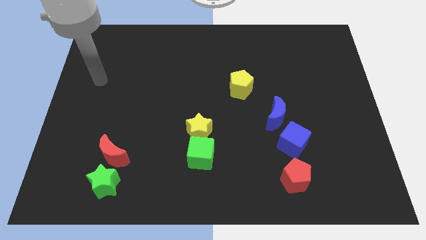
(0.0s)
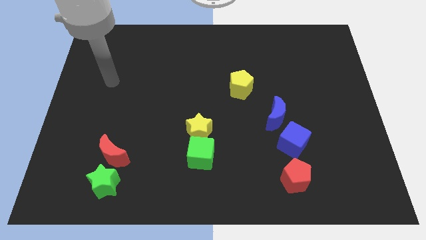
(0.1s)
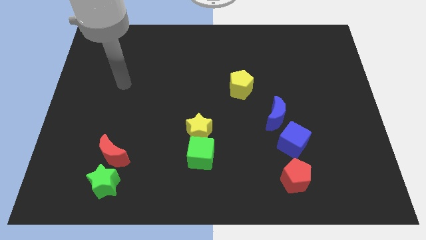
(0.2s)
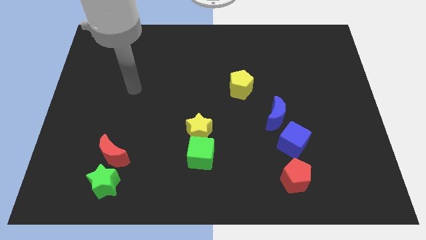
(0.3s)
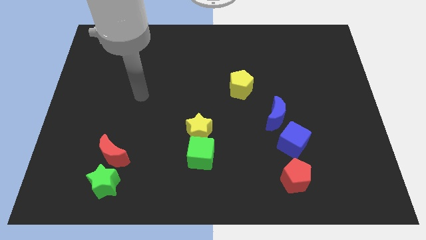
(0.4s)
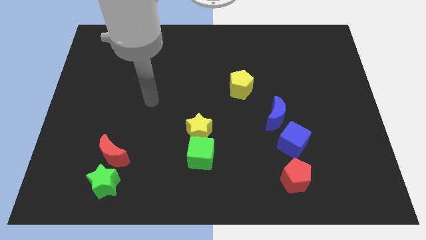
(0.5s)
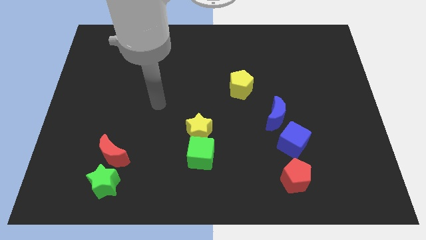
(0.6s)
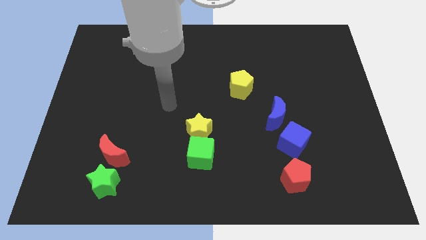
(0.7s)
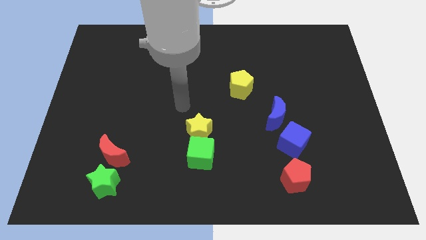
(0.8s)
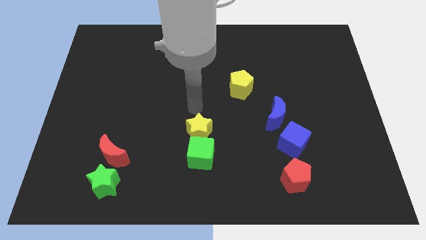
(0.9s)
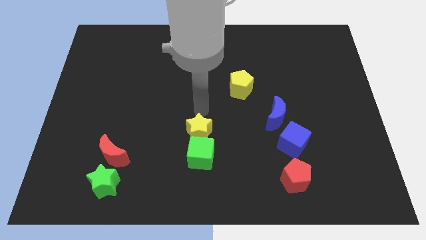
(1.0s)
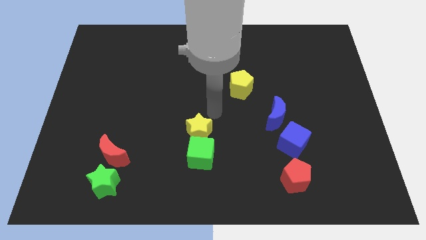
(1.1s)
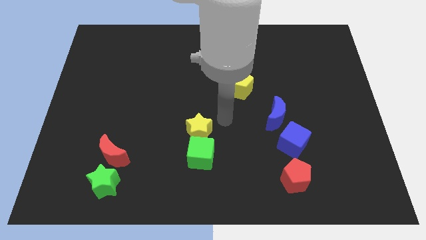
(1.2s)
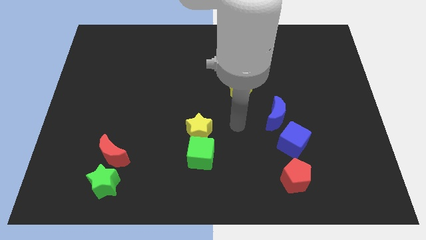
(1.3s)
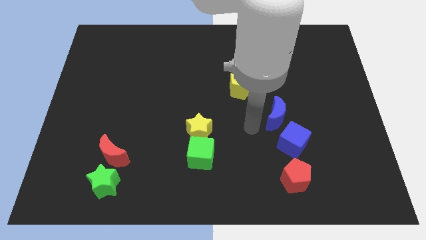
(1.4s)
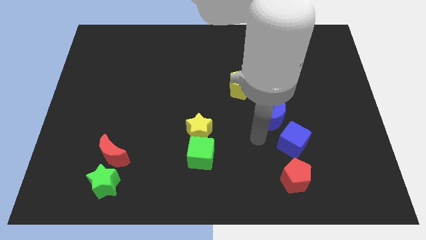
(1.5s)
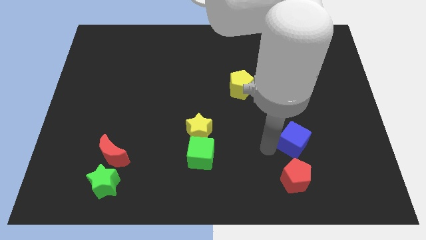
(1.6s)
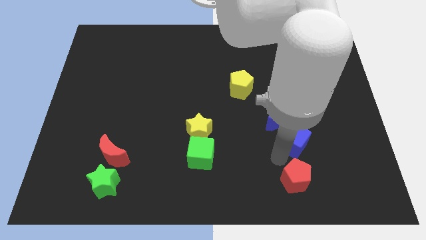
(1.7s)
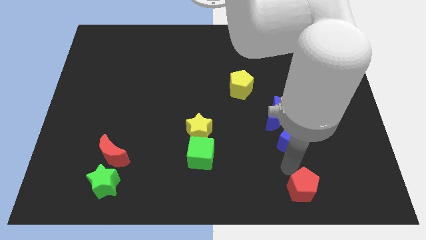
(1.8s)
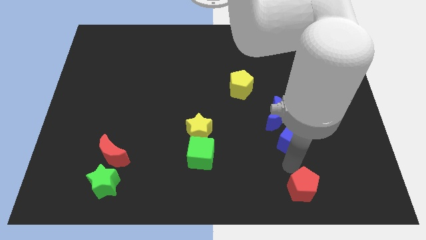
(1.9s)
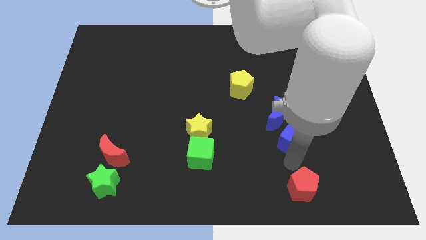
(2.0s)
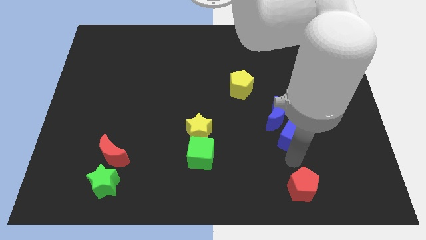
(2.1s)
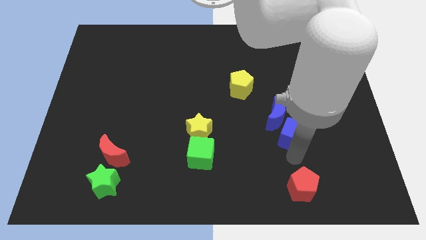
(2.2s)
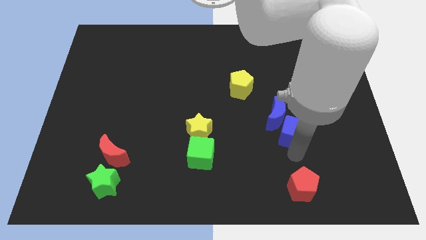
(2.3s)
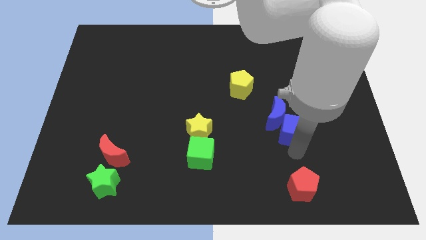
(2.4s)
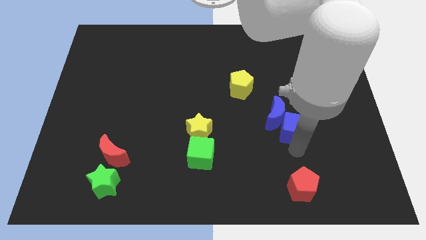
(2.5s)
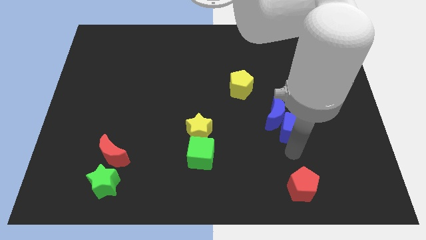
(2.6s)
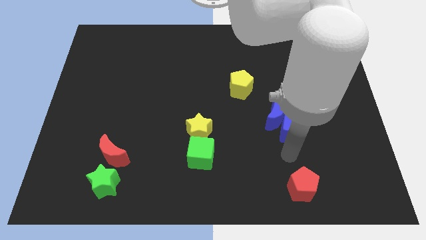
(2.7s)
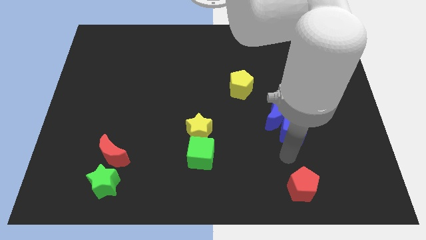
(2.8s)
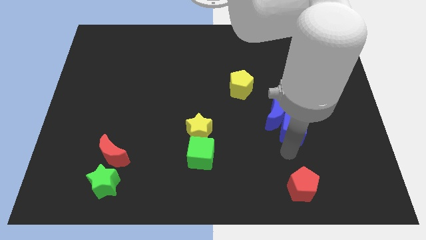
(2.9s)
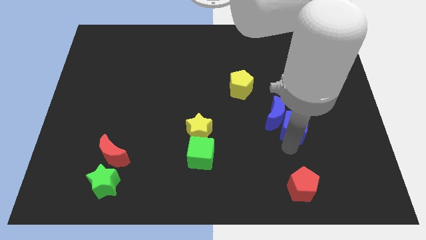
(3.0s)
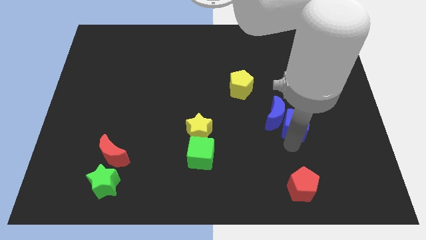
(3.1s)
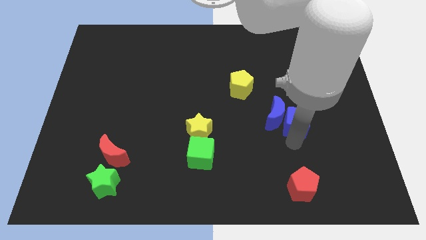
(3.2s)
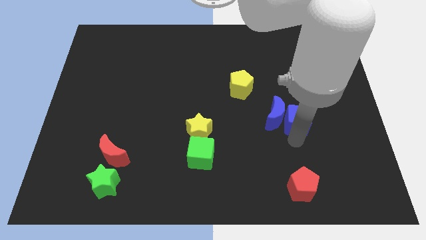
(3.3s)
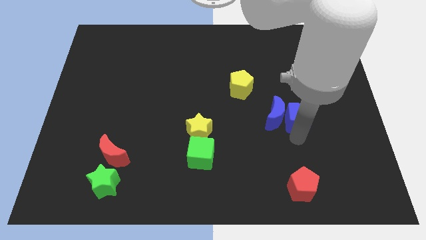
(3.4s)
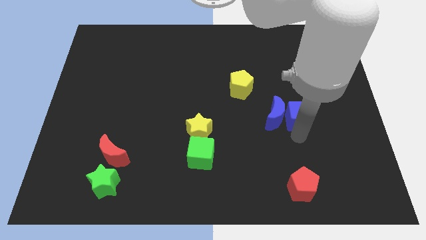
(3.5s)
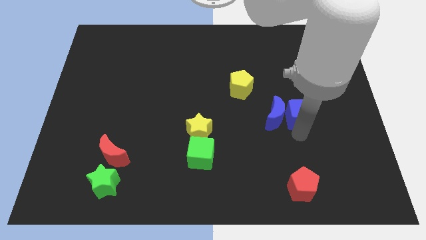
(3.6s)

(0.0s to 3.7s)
move the blue cube a bit up

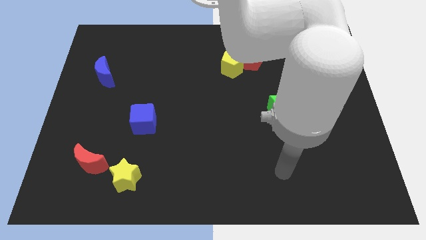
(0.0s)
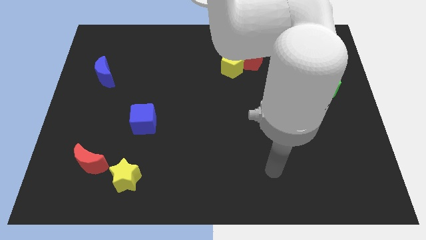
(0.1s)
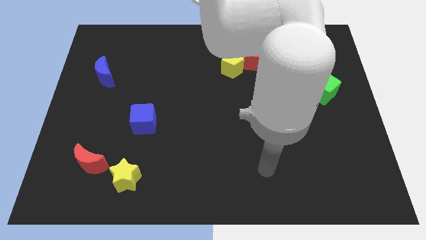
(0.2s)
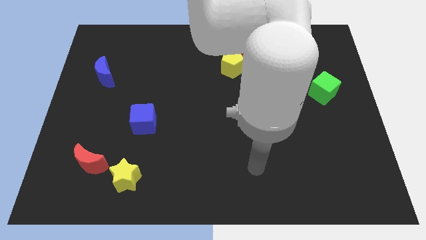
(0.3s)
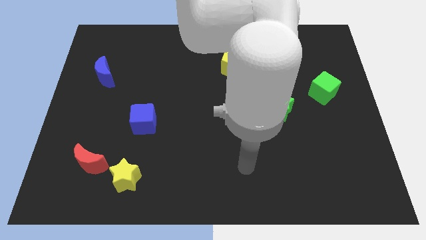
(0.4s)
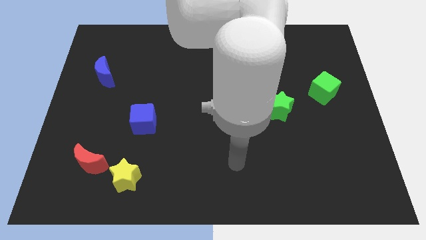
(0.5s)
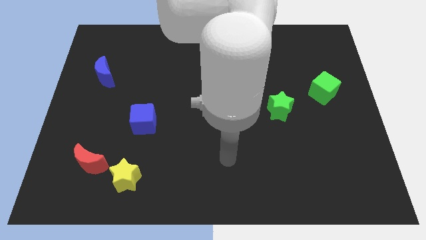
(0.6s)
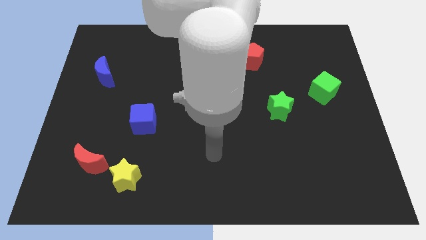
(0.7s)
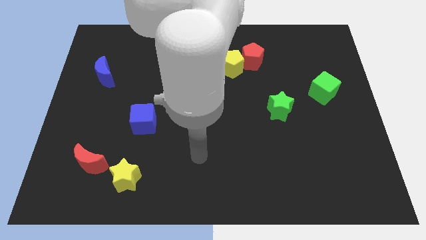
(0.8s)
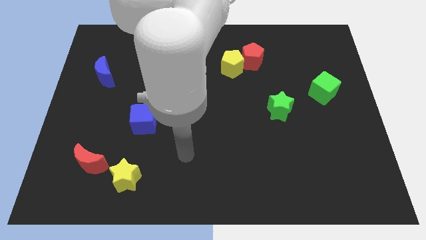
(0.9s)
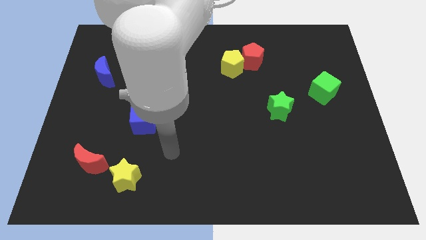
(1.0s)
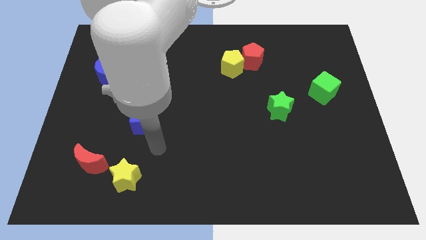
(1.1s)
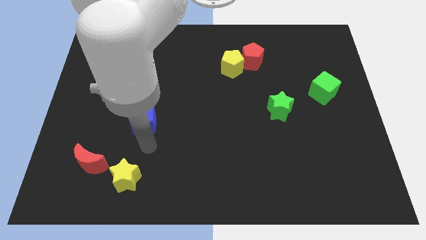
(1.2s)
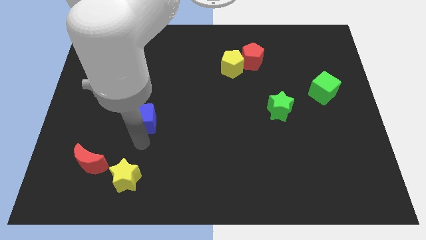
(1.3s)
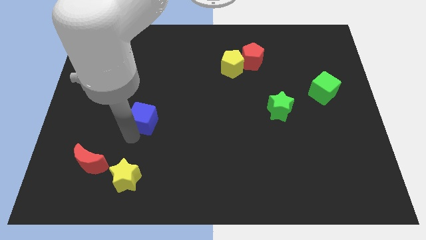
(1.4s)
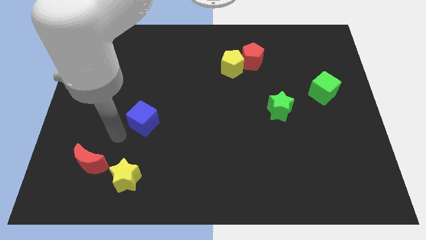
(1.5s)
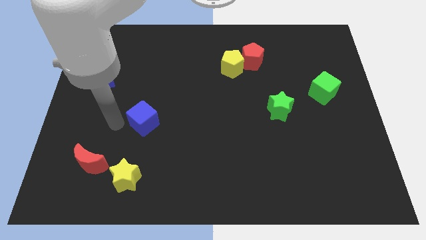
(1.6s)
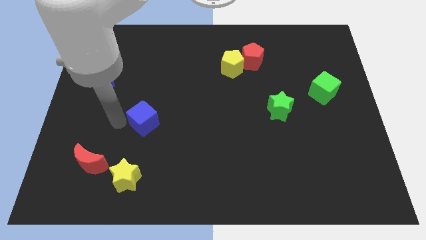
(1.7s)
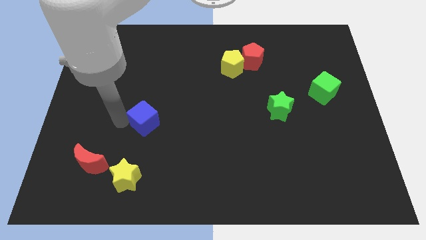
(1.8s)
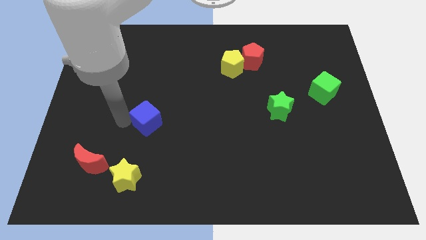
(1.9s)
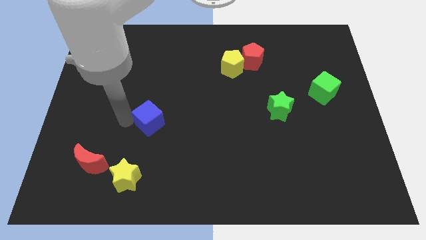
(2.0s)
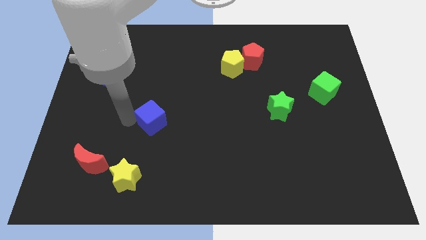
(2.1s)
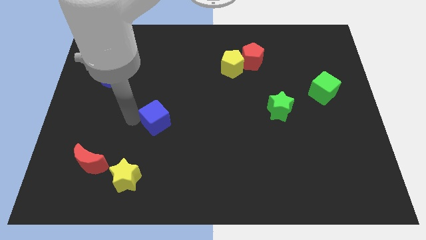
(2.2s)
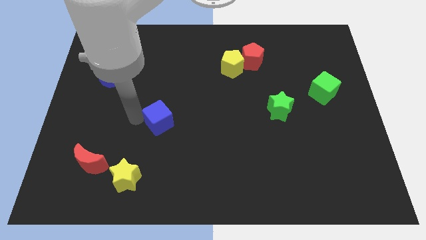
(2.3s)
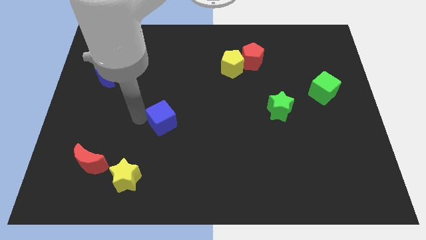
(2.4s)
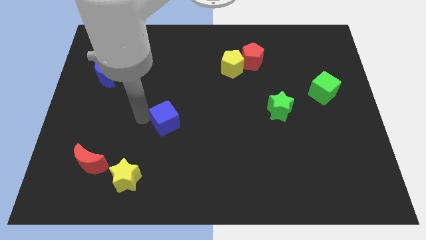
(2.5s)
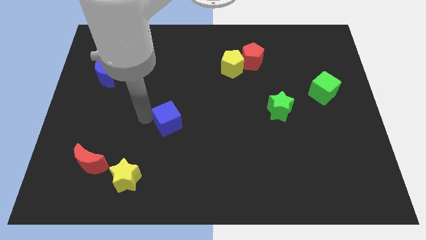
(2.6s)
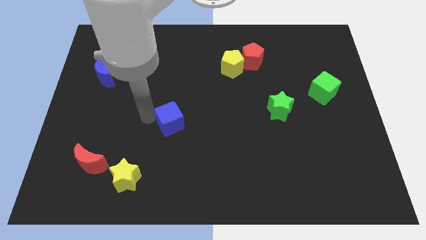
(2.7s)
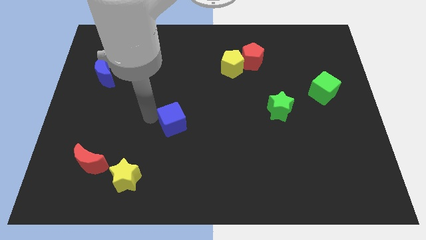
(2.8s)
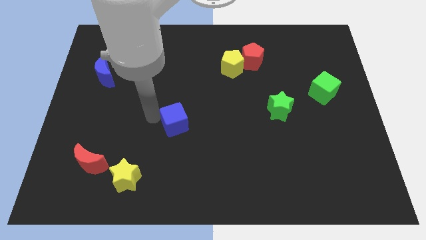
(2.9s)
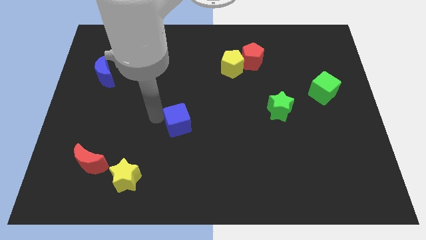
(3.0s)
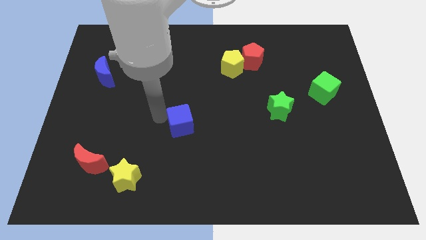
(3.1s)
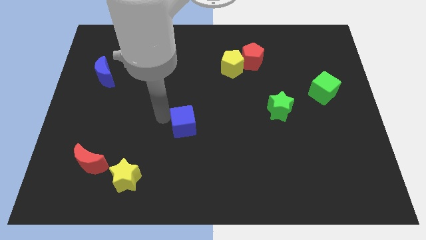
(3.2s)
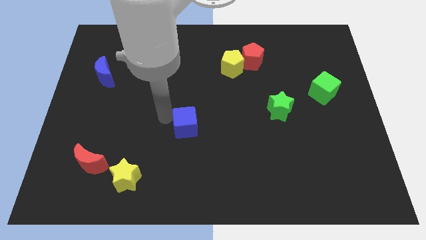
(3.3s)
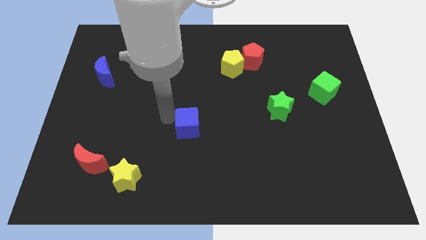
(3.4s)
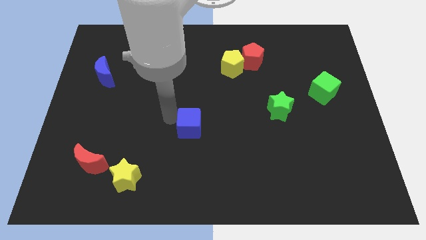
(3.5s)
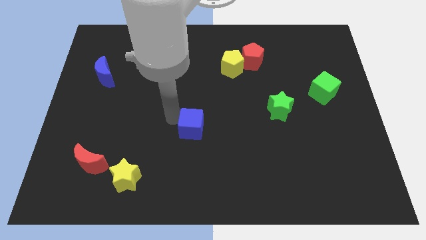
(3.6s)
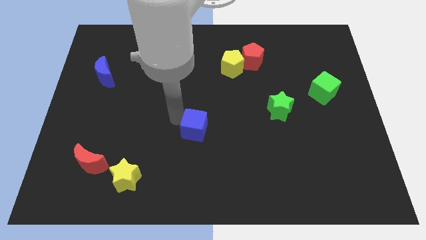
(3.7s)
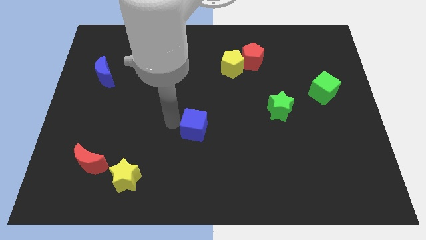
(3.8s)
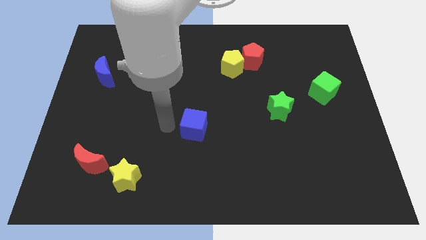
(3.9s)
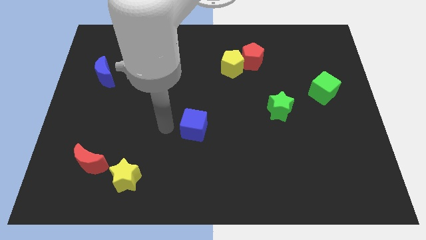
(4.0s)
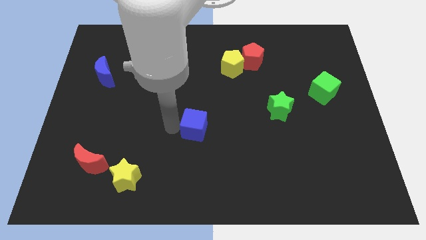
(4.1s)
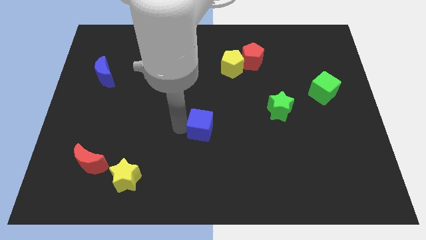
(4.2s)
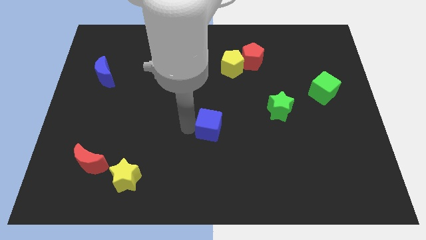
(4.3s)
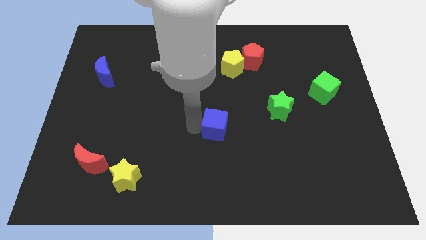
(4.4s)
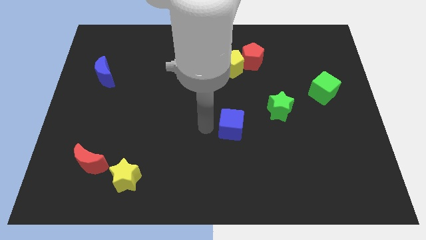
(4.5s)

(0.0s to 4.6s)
push the blue cube to the right
